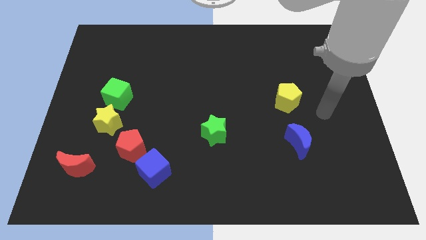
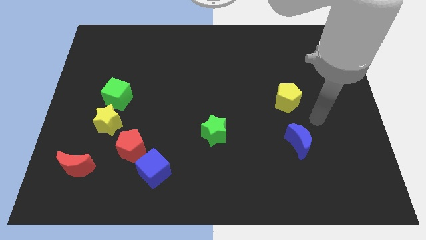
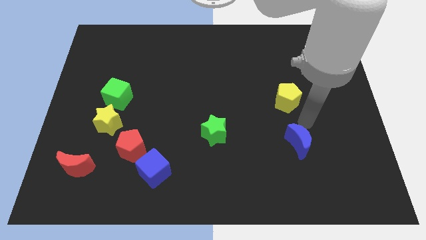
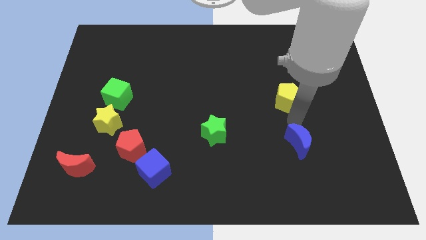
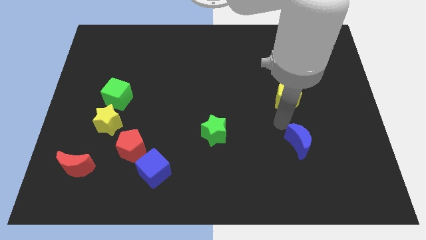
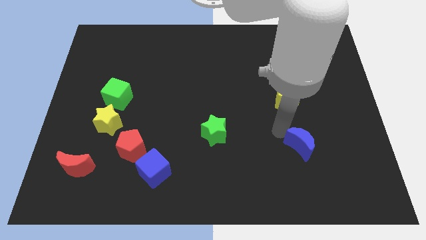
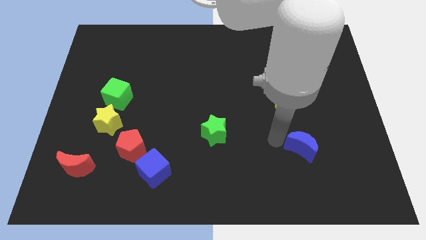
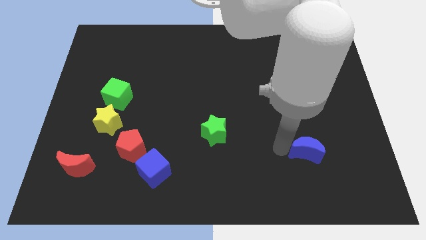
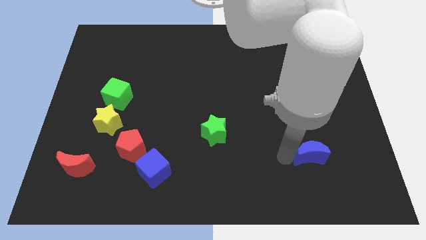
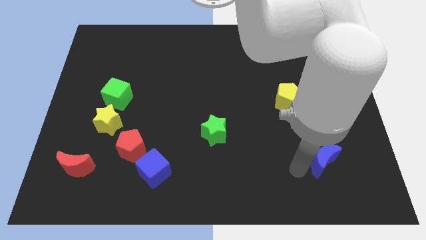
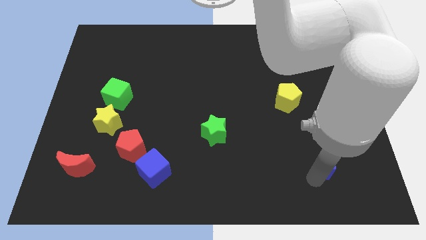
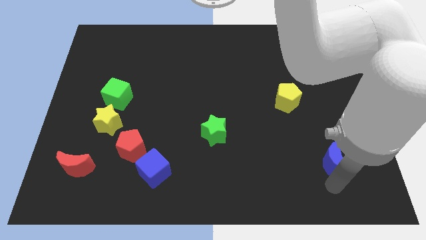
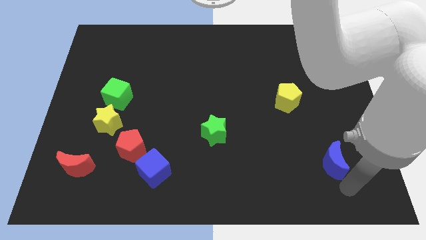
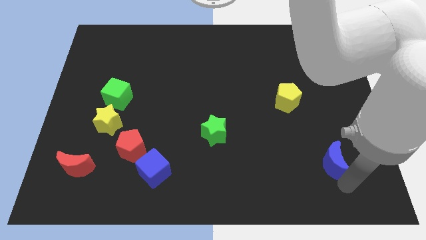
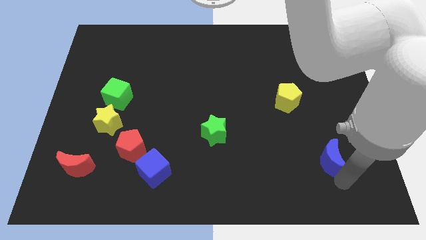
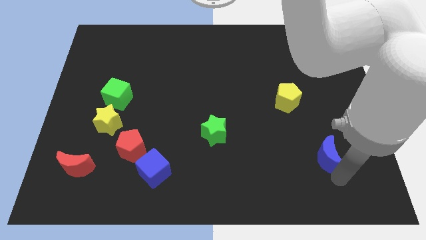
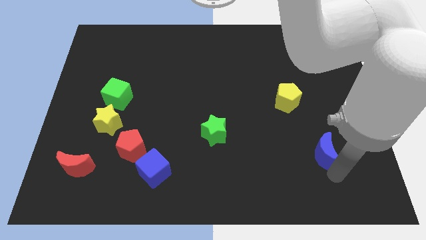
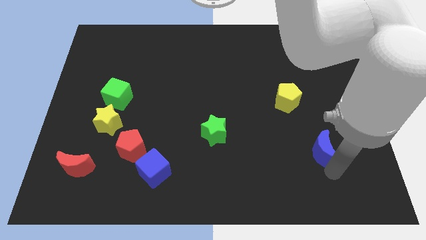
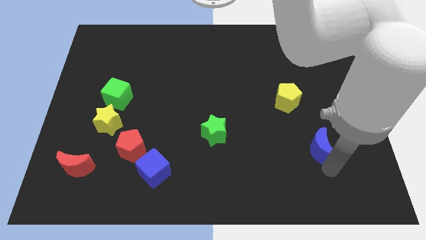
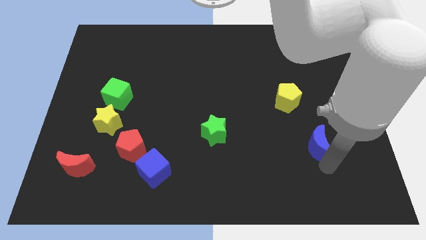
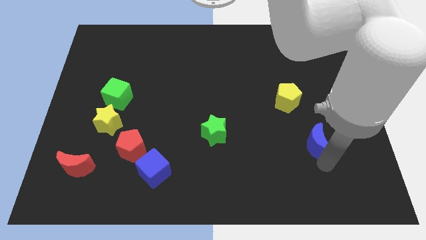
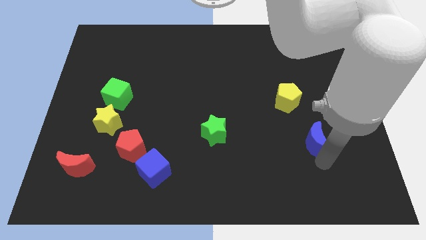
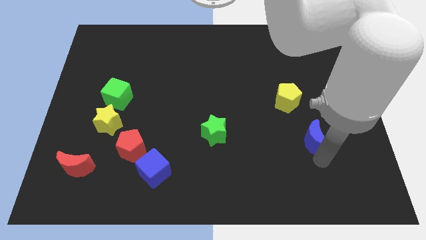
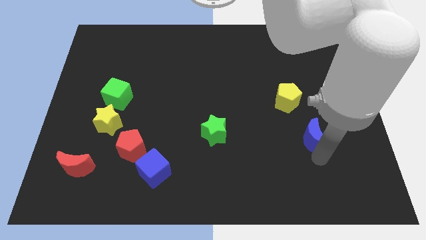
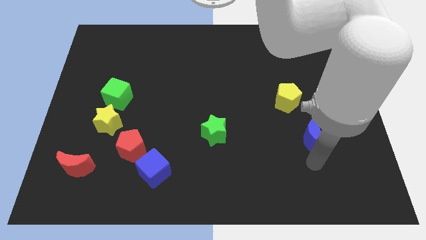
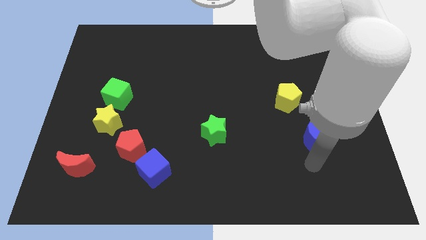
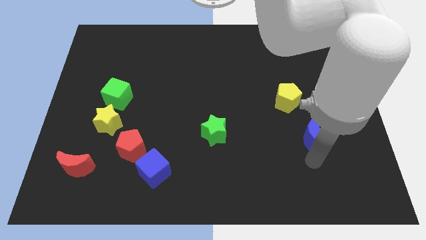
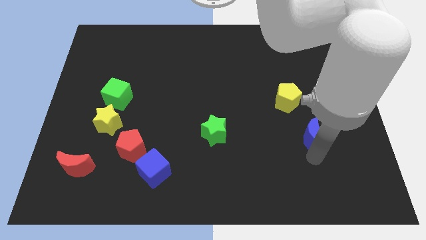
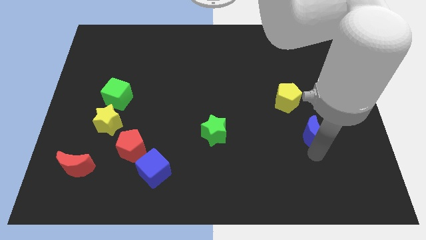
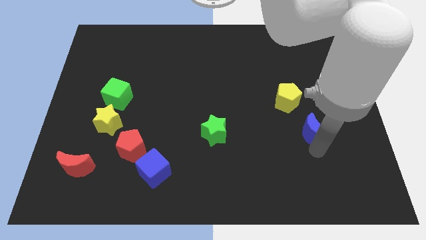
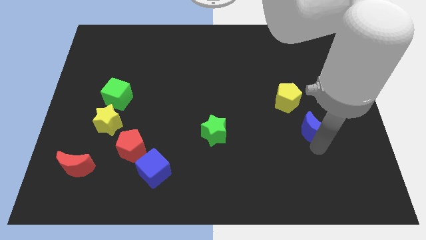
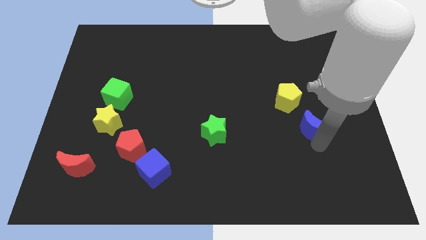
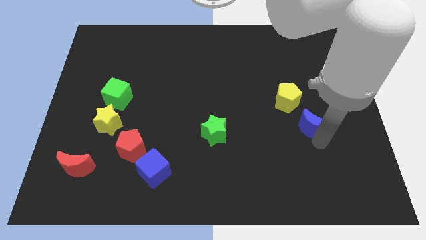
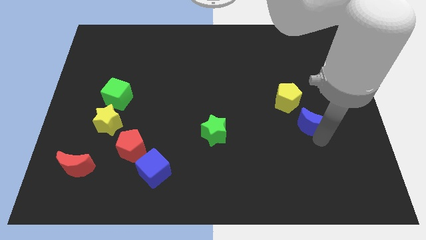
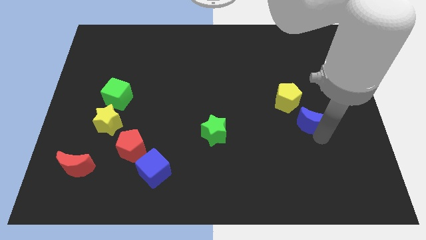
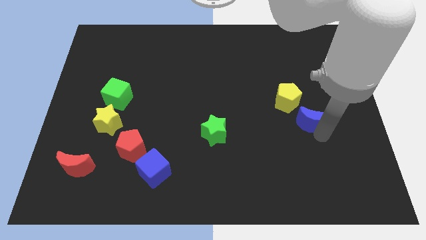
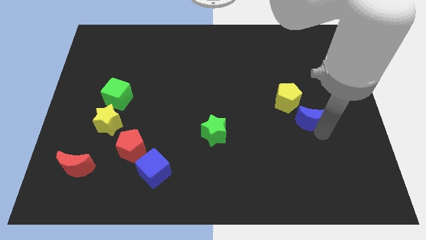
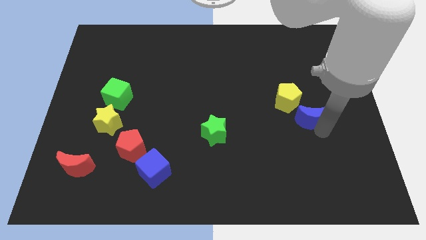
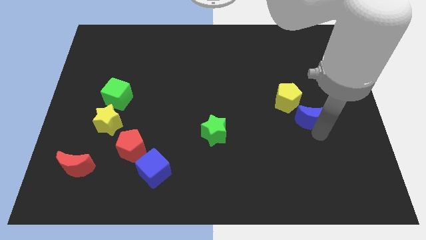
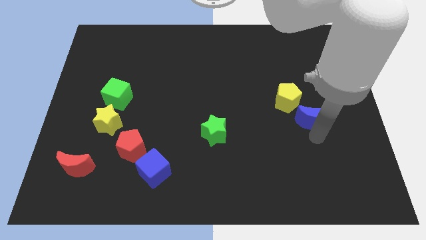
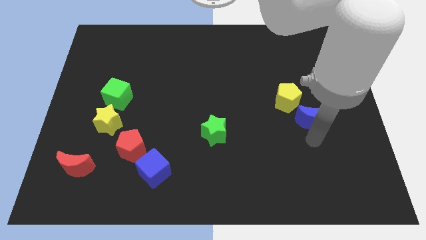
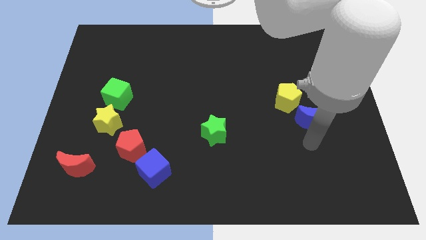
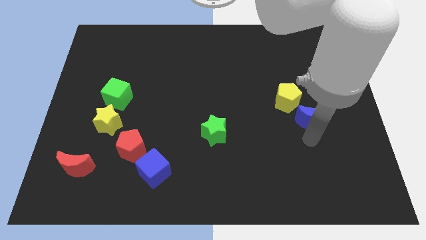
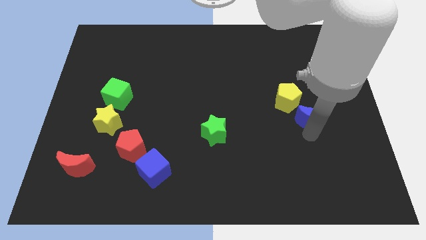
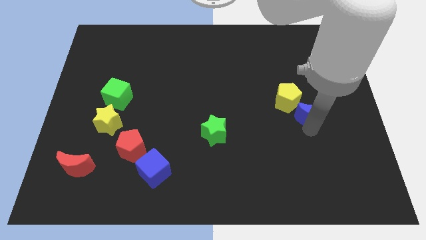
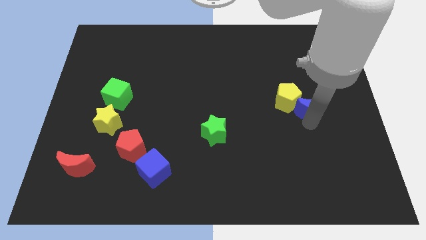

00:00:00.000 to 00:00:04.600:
slightly push the blue moon up

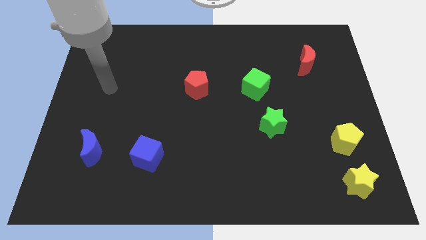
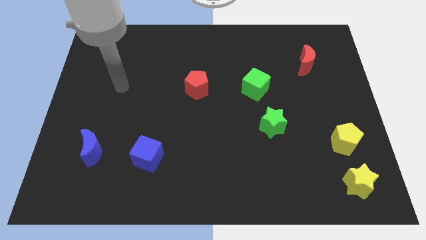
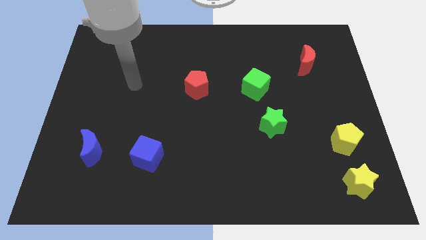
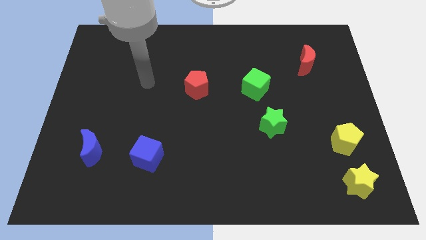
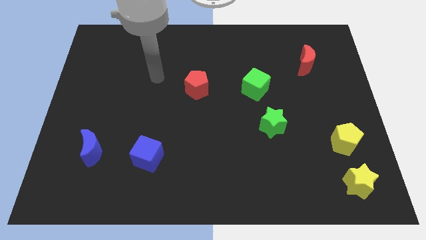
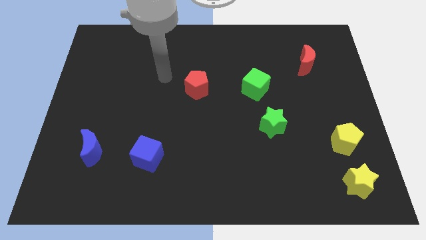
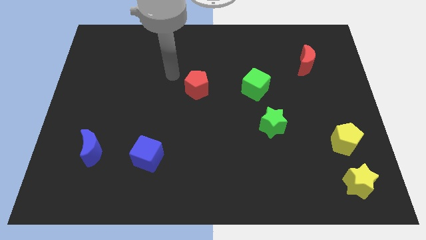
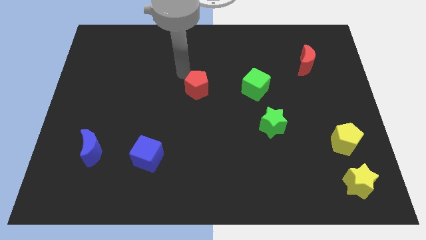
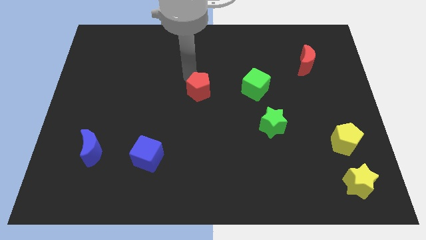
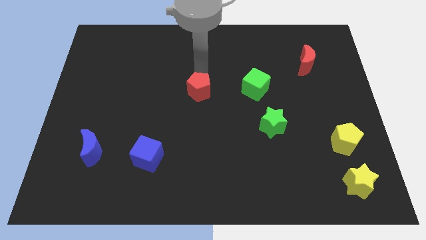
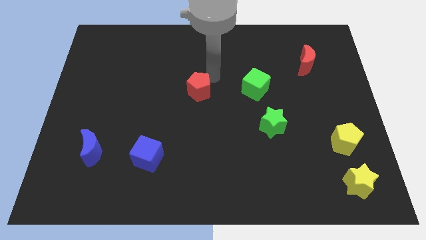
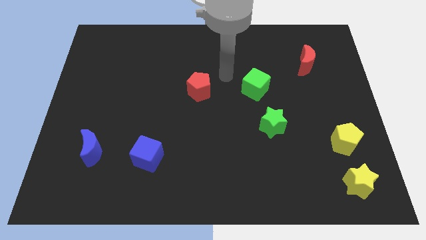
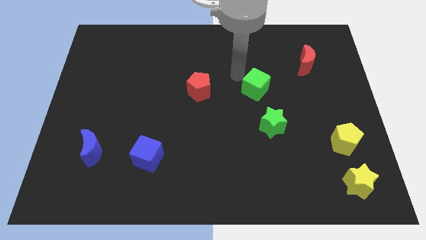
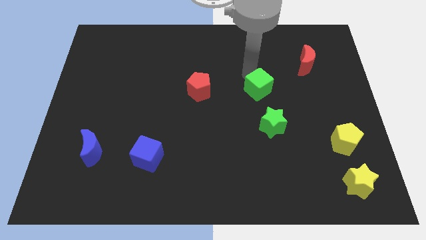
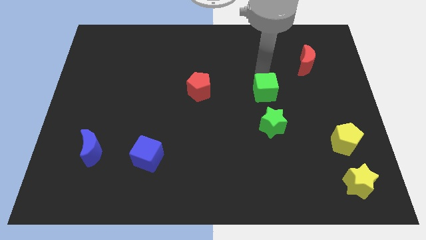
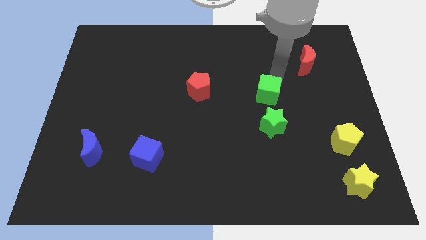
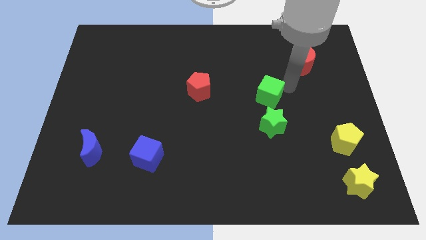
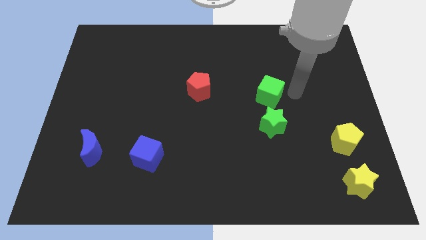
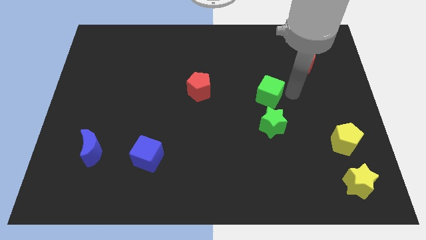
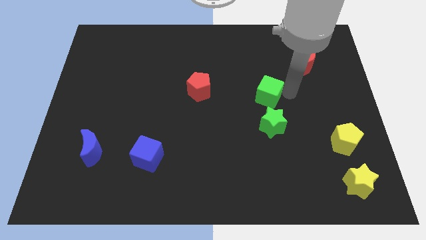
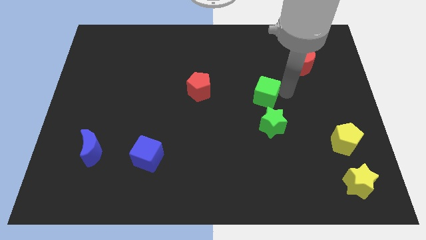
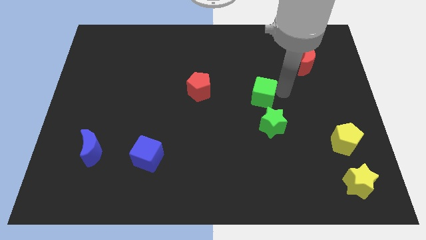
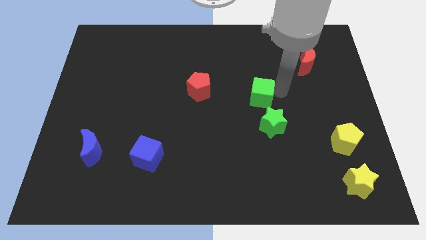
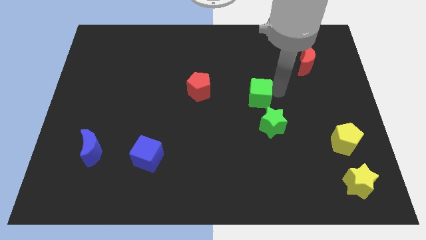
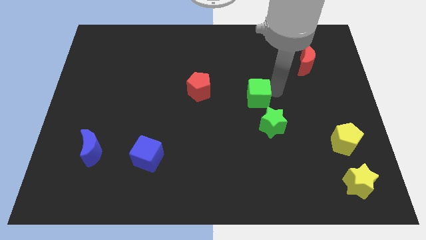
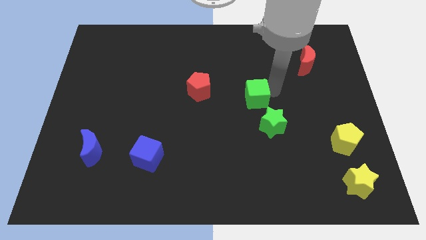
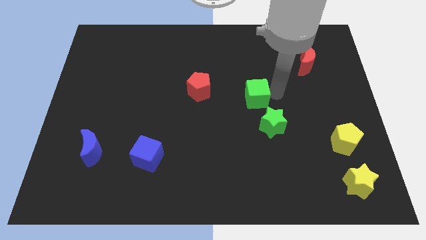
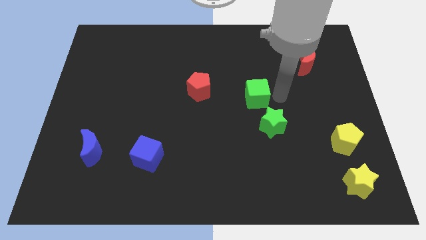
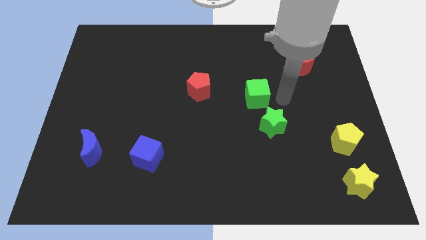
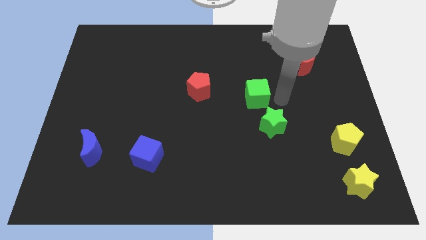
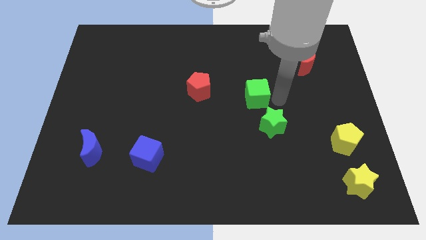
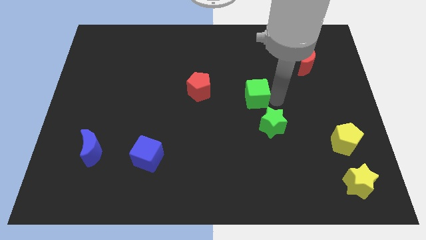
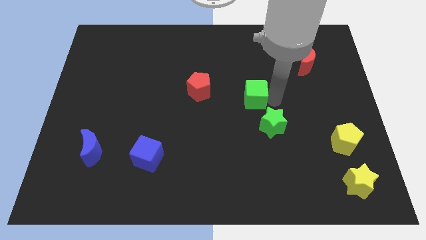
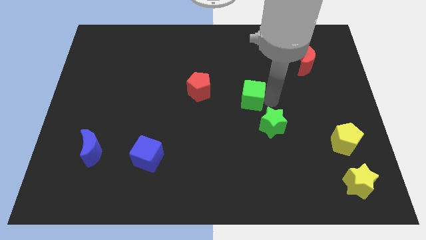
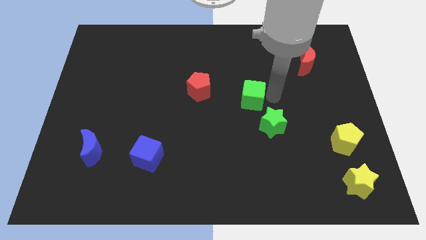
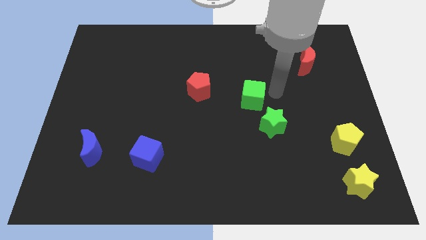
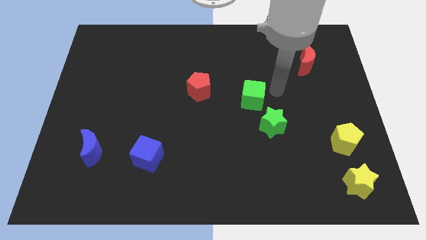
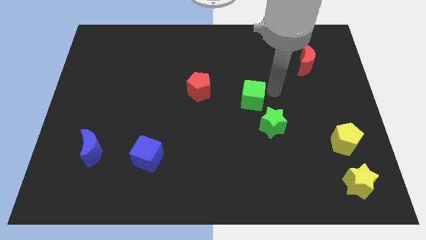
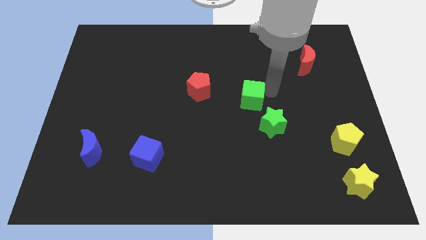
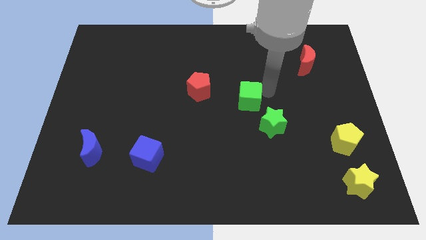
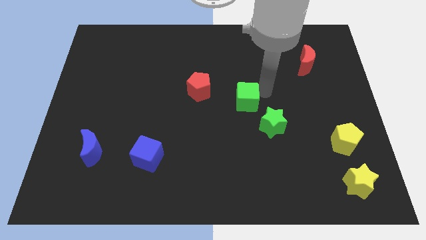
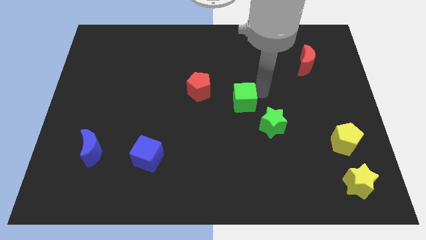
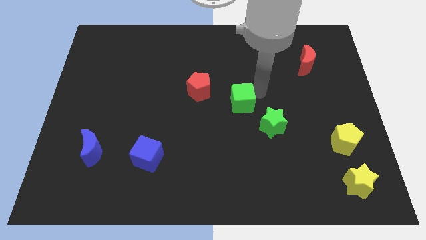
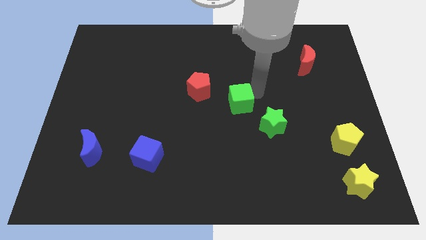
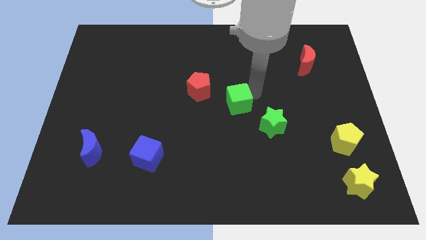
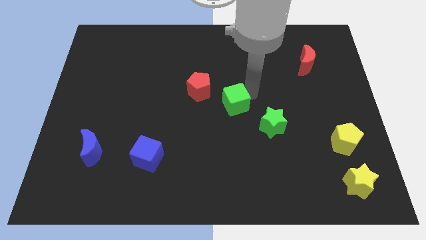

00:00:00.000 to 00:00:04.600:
slide the green cube slightly diagonally down and to the left
